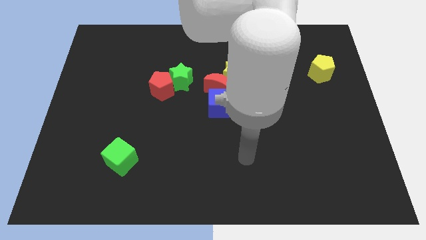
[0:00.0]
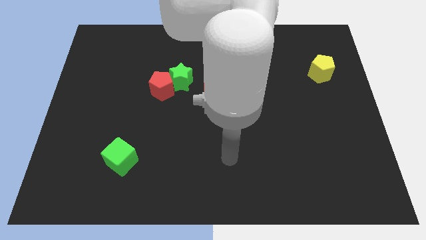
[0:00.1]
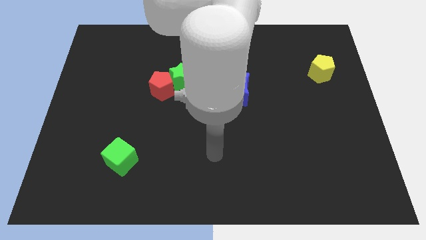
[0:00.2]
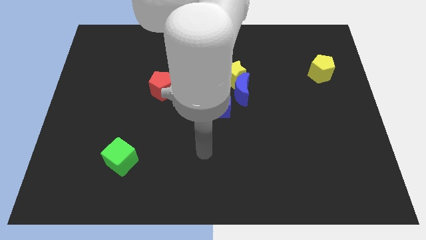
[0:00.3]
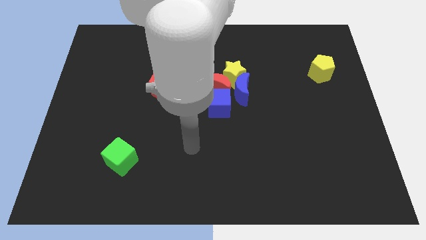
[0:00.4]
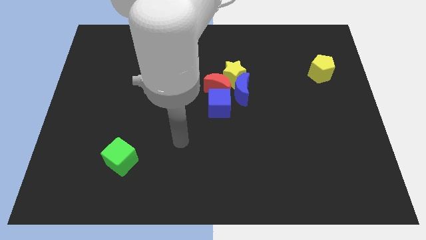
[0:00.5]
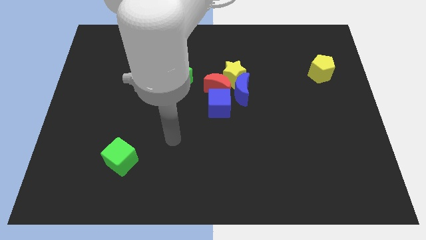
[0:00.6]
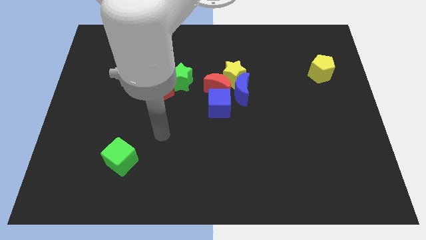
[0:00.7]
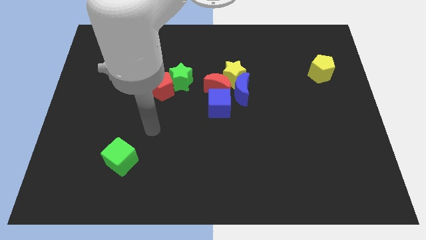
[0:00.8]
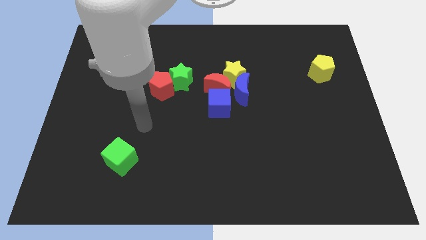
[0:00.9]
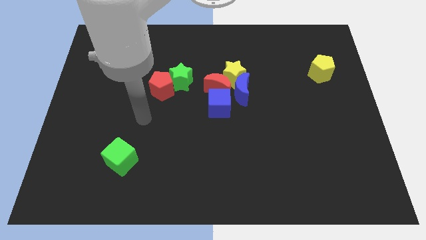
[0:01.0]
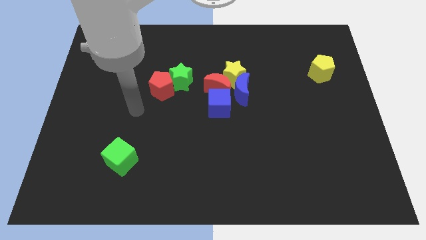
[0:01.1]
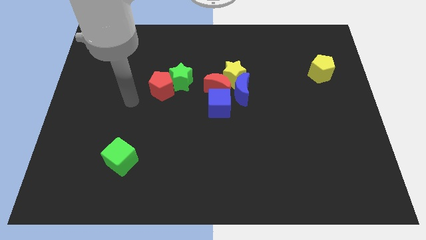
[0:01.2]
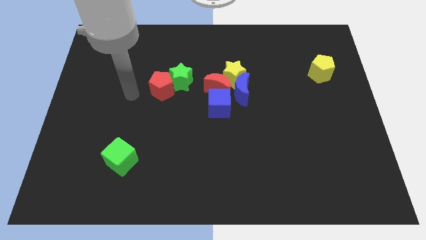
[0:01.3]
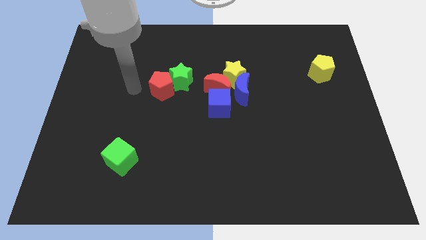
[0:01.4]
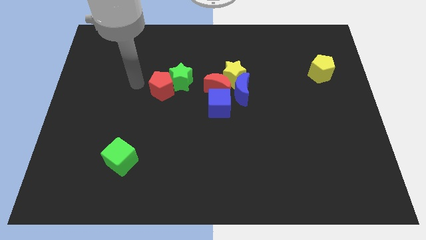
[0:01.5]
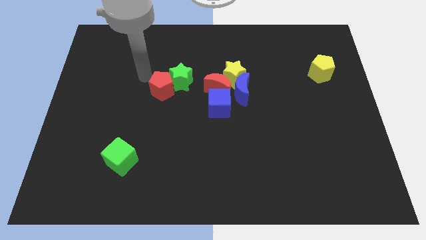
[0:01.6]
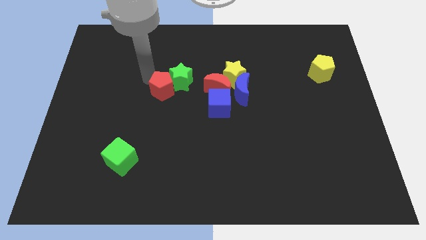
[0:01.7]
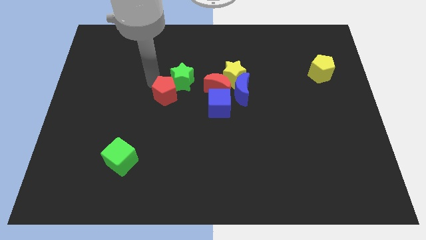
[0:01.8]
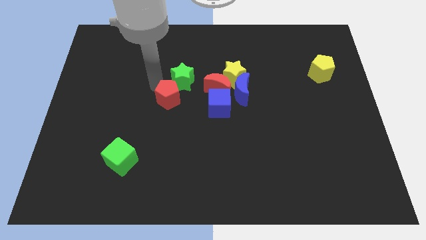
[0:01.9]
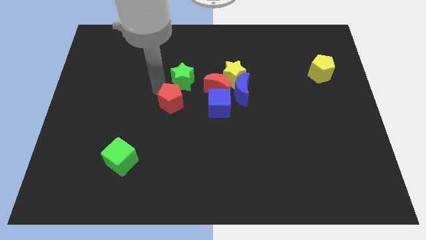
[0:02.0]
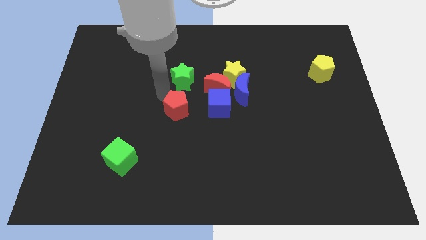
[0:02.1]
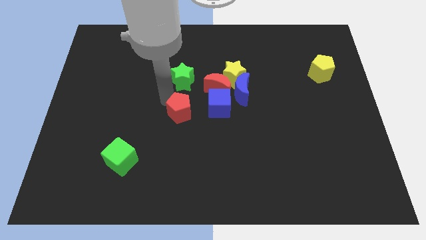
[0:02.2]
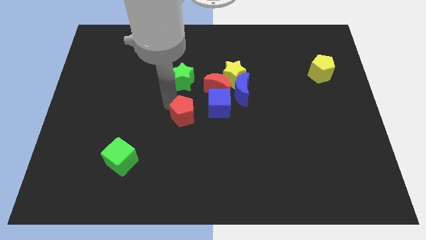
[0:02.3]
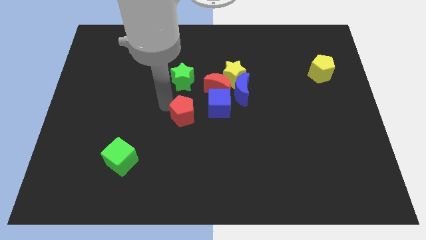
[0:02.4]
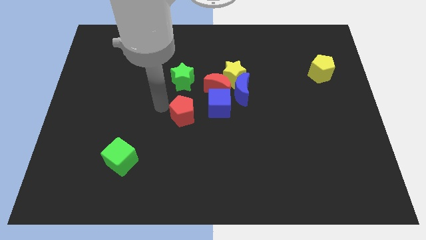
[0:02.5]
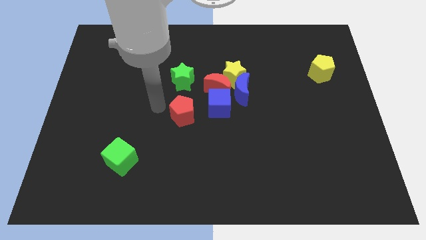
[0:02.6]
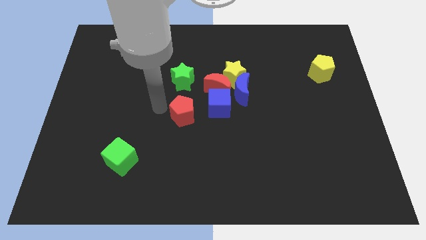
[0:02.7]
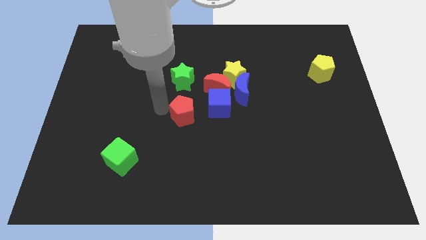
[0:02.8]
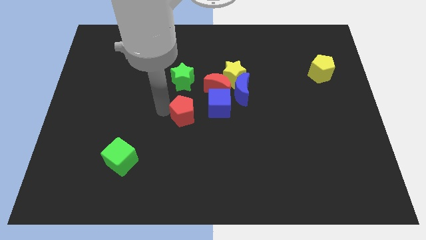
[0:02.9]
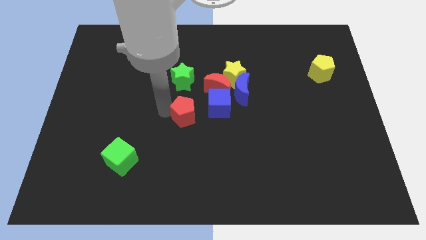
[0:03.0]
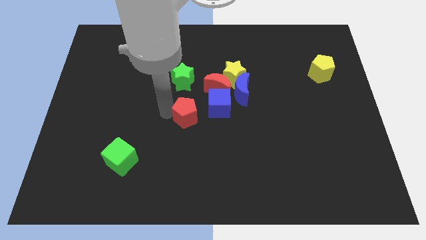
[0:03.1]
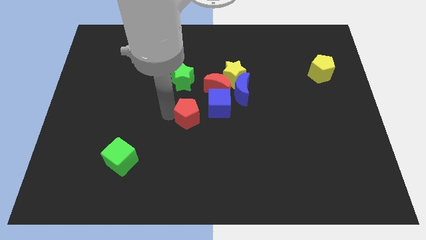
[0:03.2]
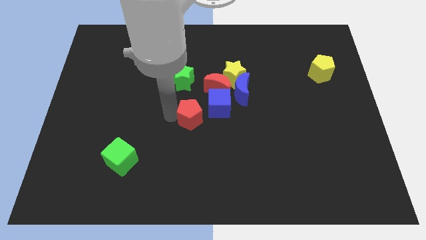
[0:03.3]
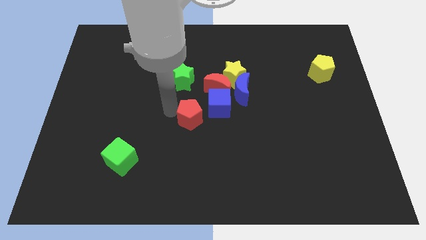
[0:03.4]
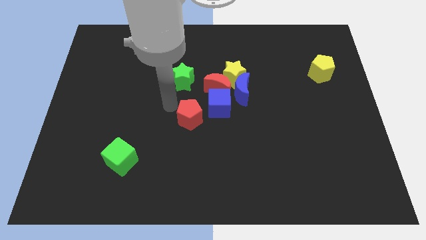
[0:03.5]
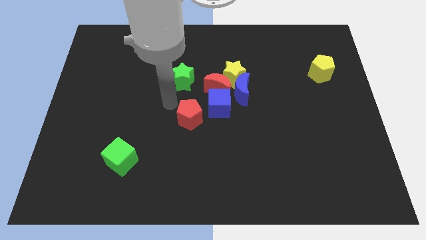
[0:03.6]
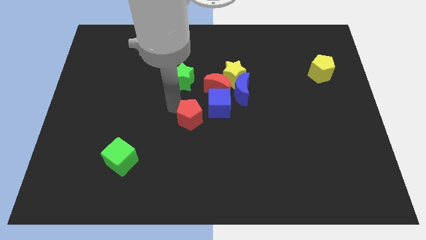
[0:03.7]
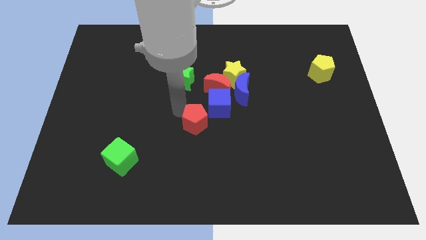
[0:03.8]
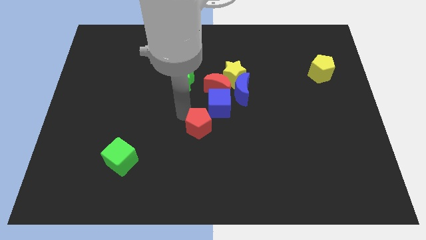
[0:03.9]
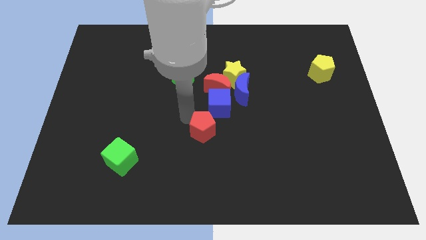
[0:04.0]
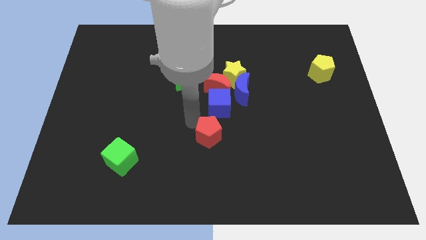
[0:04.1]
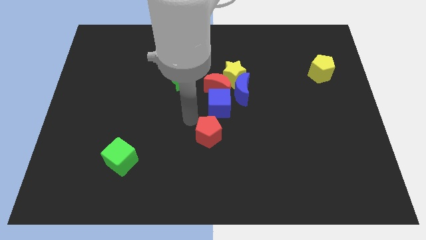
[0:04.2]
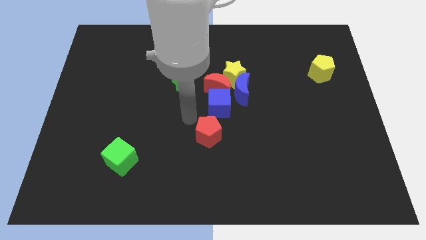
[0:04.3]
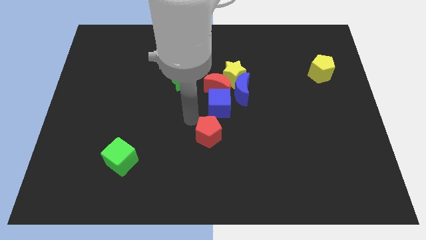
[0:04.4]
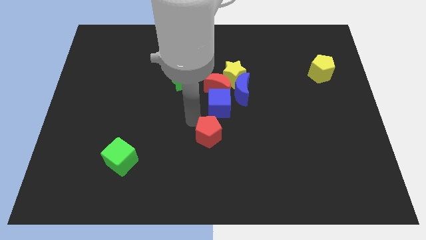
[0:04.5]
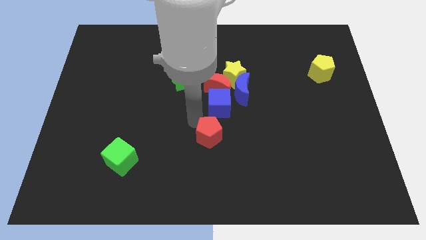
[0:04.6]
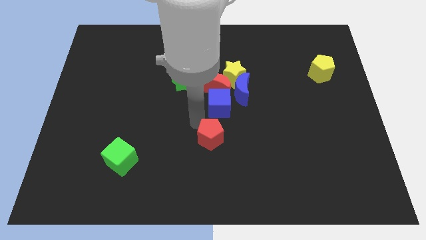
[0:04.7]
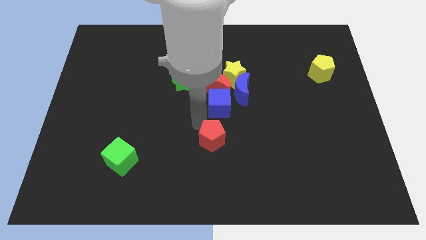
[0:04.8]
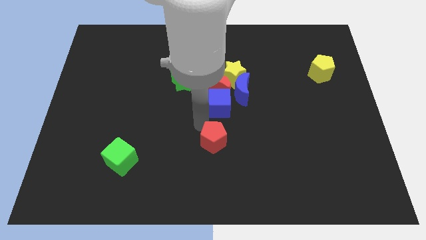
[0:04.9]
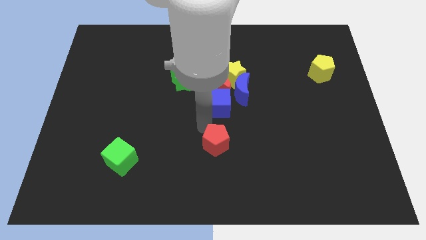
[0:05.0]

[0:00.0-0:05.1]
push the red pentagon down and right diagonally

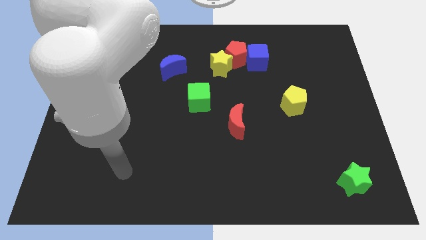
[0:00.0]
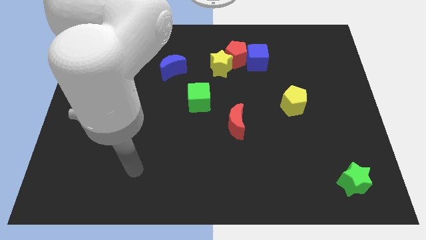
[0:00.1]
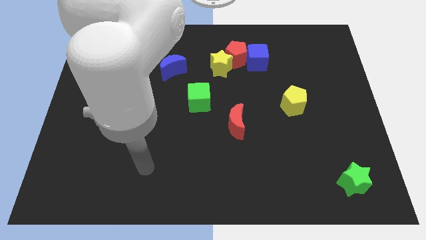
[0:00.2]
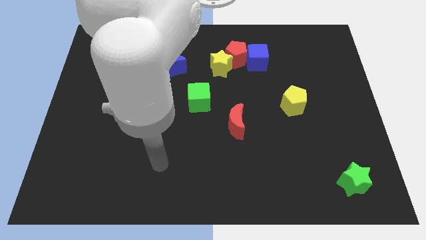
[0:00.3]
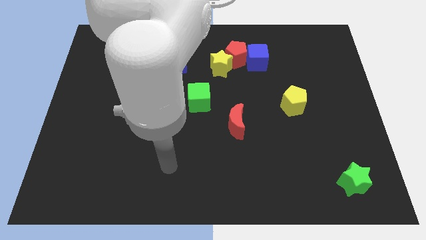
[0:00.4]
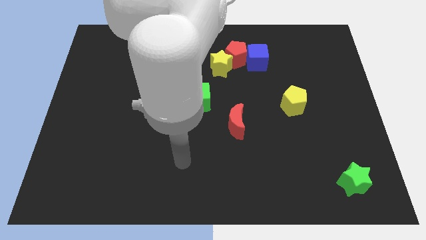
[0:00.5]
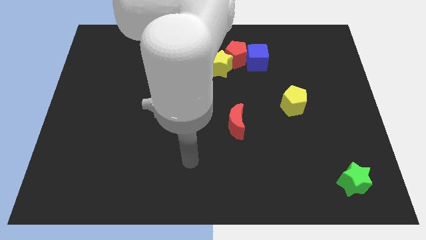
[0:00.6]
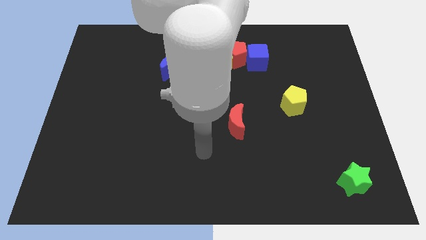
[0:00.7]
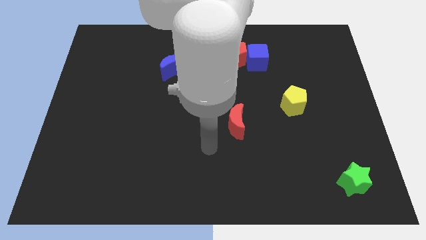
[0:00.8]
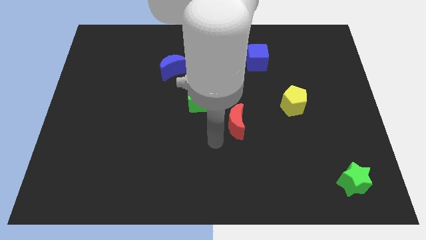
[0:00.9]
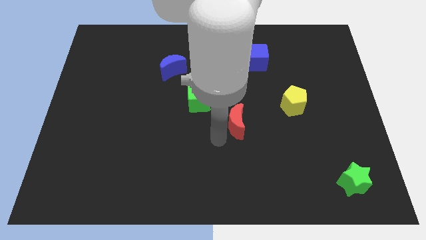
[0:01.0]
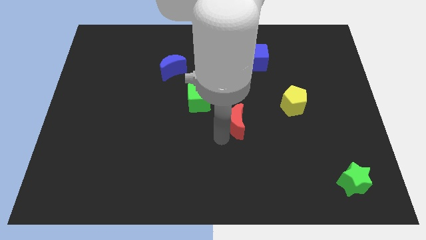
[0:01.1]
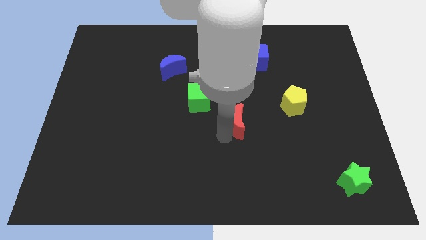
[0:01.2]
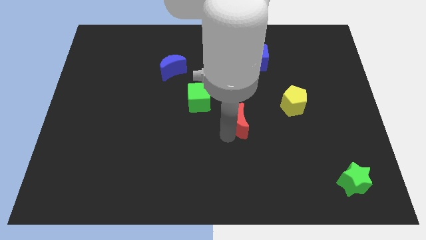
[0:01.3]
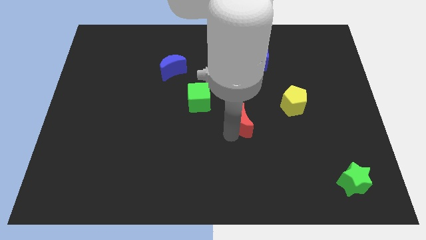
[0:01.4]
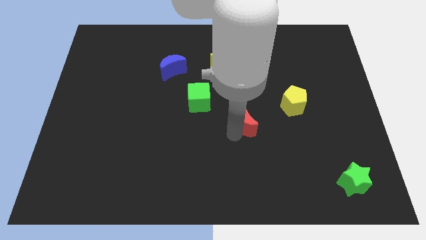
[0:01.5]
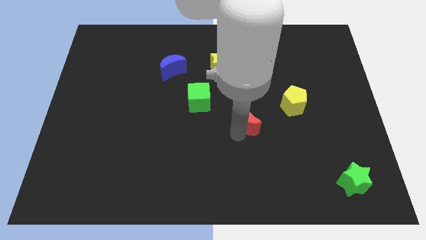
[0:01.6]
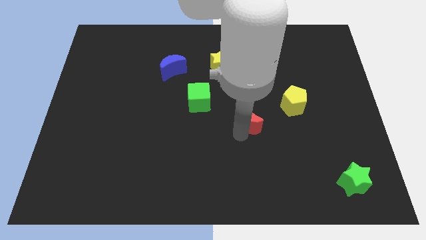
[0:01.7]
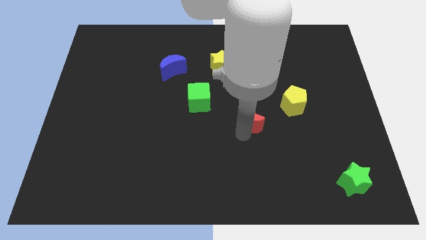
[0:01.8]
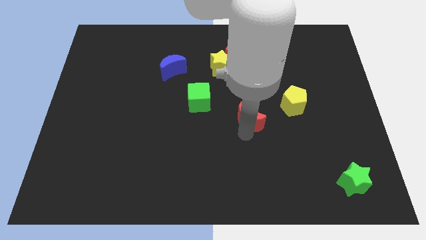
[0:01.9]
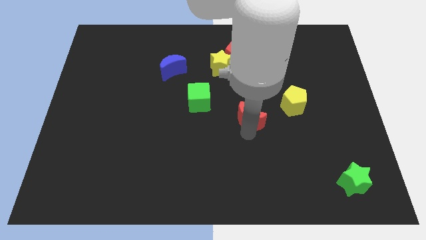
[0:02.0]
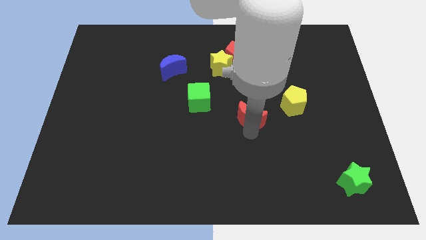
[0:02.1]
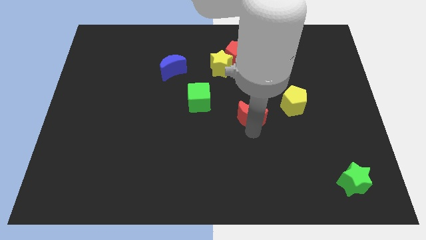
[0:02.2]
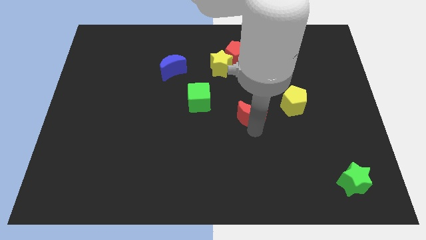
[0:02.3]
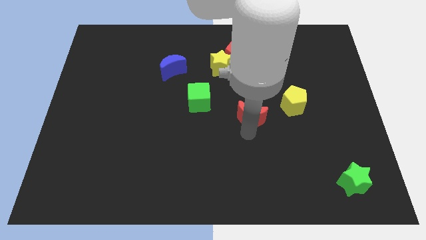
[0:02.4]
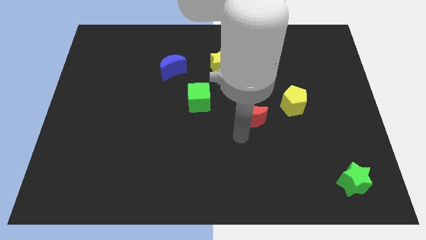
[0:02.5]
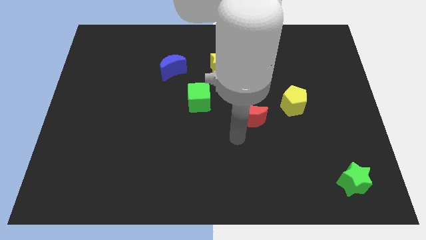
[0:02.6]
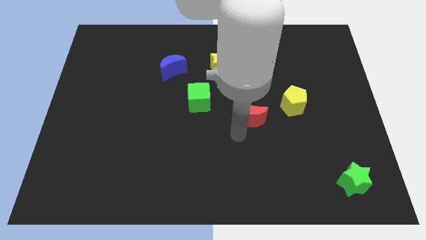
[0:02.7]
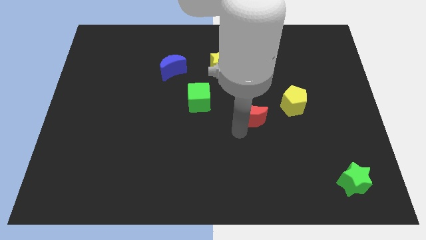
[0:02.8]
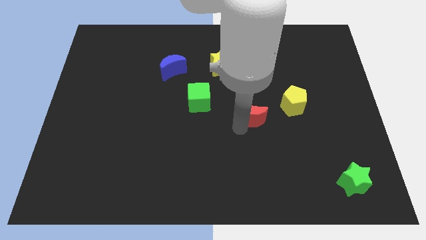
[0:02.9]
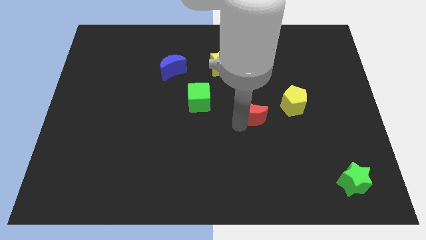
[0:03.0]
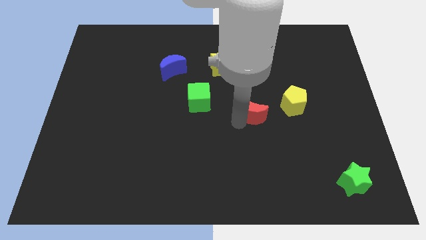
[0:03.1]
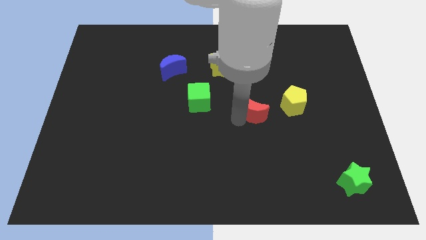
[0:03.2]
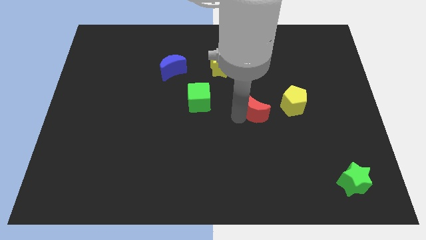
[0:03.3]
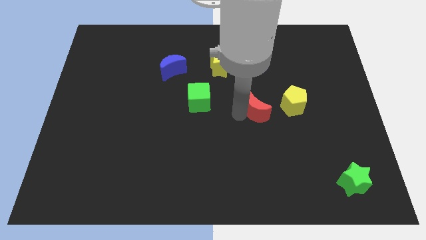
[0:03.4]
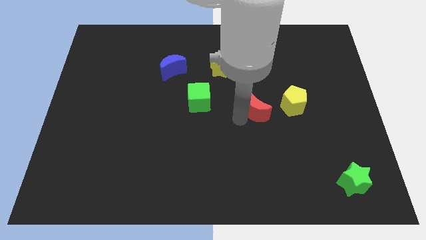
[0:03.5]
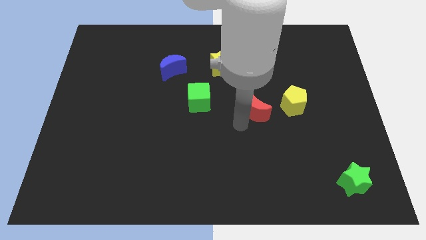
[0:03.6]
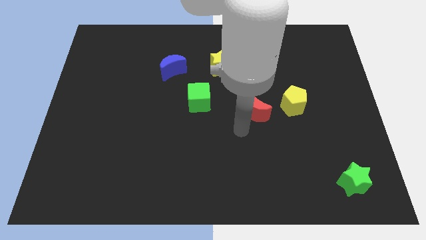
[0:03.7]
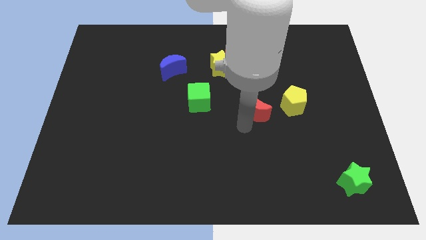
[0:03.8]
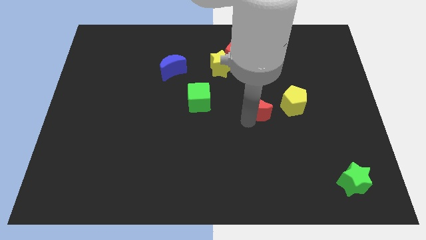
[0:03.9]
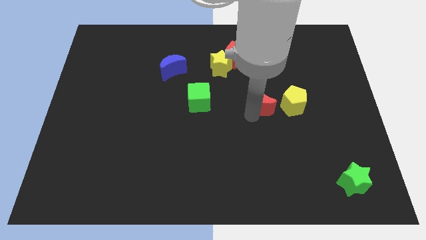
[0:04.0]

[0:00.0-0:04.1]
slide the red moon diagonally up and to the right a little bit
